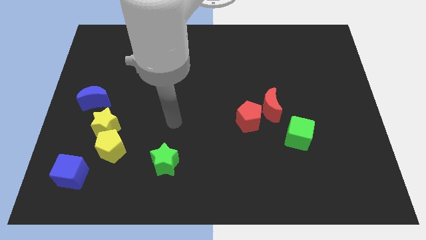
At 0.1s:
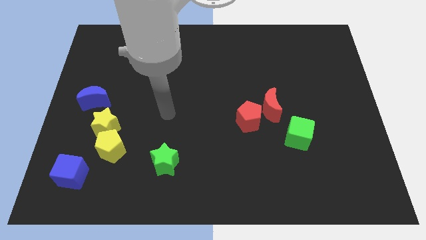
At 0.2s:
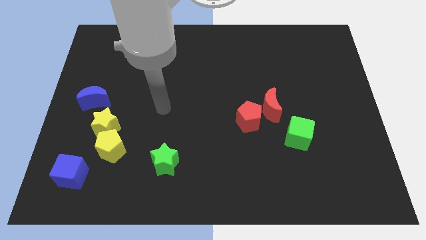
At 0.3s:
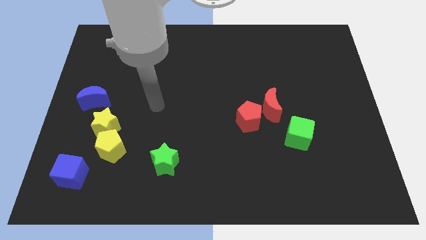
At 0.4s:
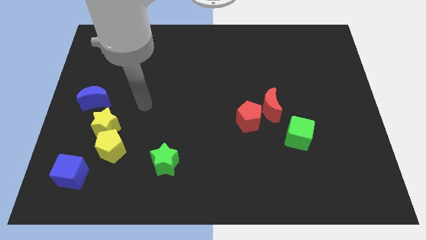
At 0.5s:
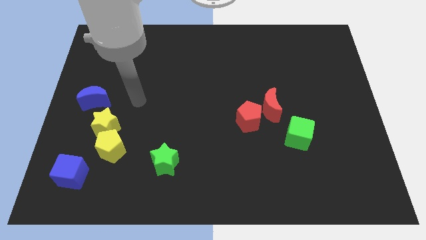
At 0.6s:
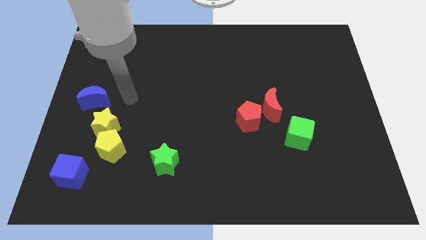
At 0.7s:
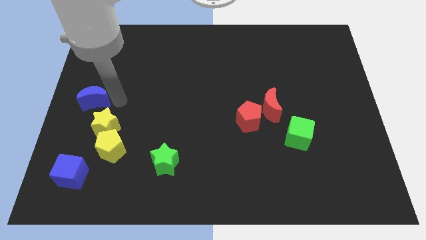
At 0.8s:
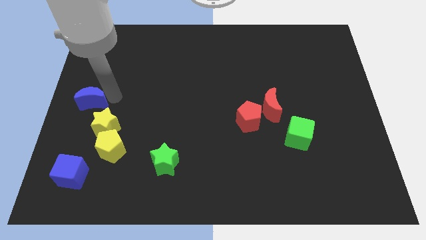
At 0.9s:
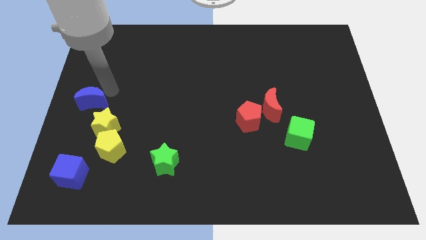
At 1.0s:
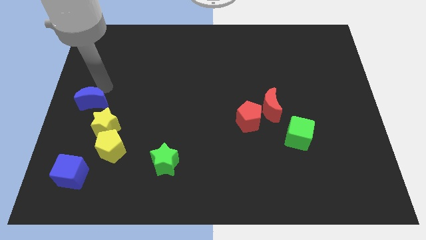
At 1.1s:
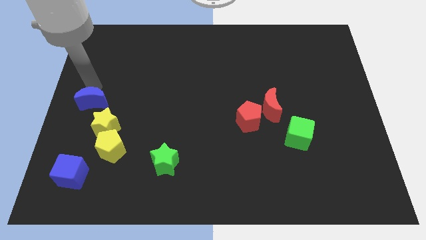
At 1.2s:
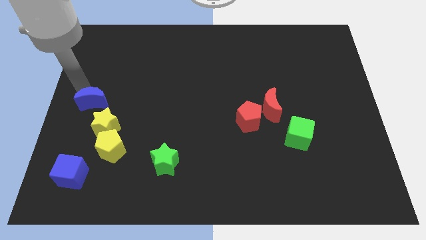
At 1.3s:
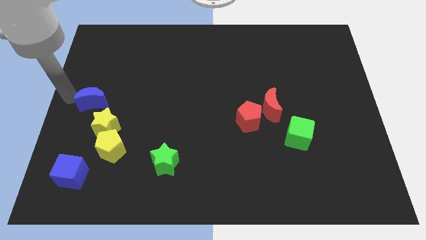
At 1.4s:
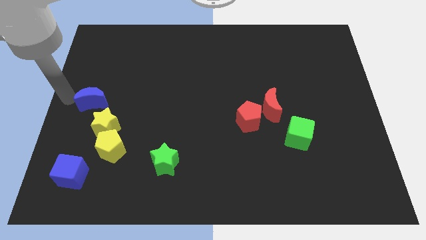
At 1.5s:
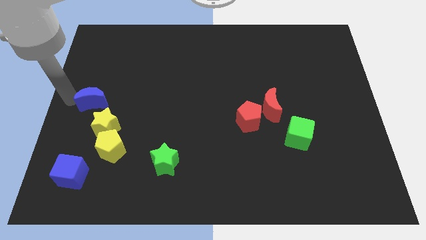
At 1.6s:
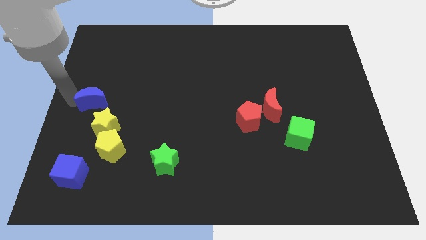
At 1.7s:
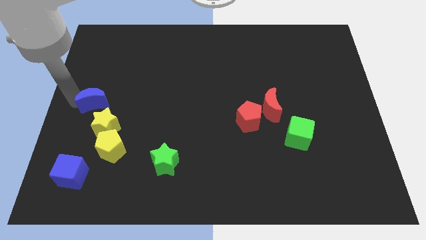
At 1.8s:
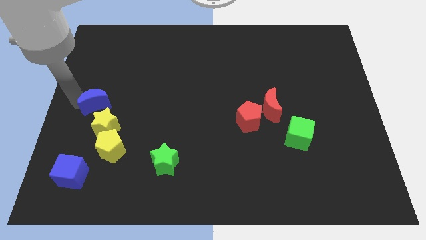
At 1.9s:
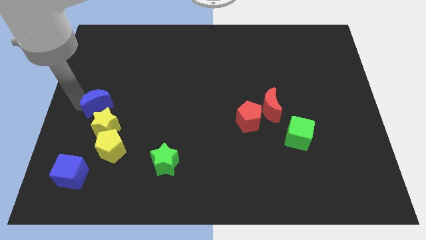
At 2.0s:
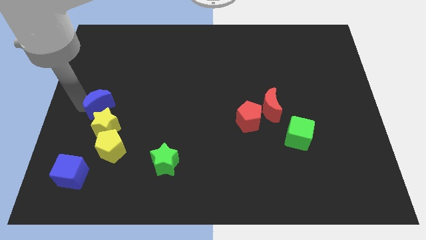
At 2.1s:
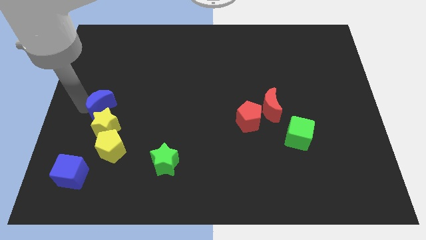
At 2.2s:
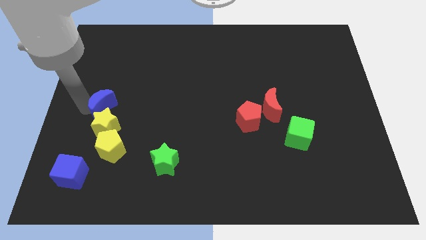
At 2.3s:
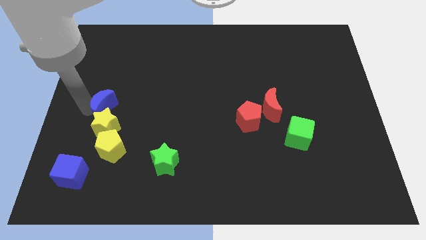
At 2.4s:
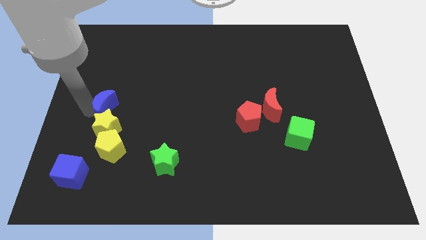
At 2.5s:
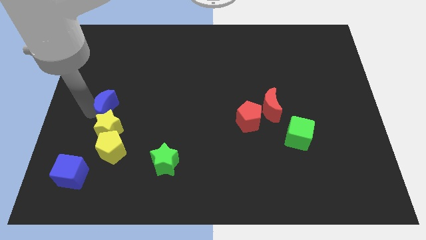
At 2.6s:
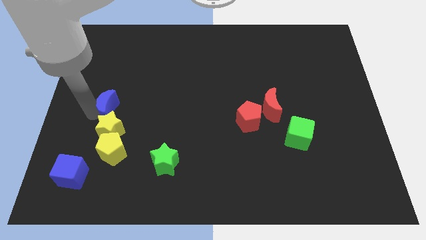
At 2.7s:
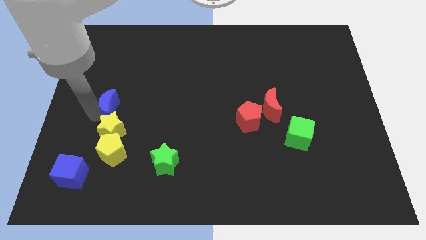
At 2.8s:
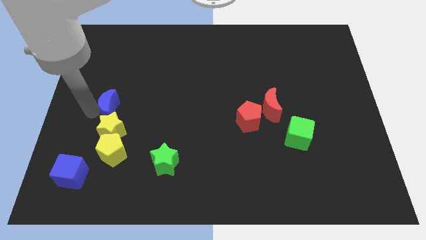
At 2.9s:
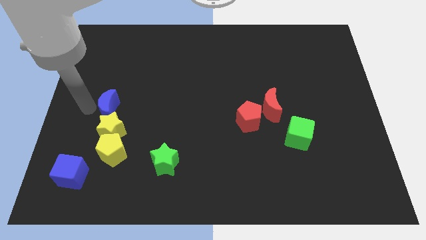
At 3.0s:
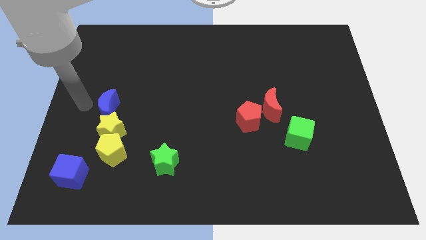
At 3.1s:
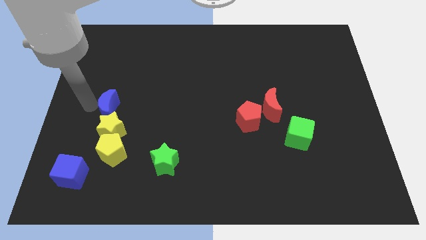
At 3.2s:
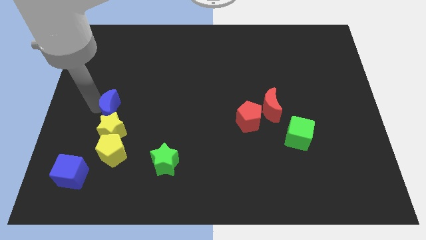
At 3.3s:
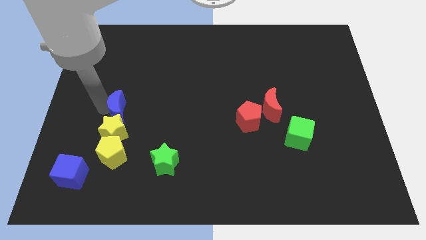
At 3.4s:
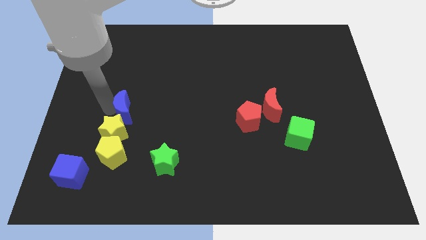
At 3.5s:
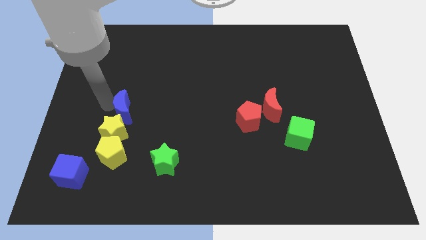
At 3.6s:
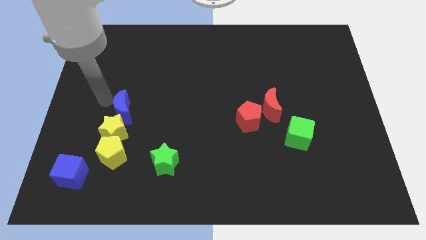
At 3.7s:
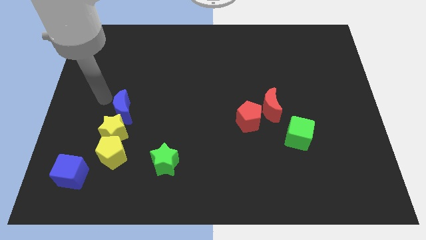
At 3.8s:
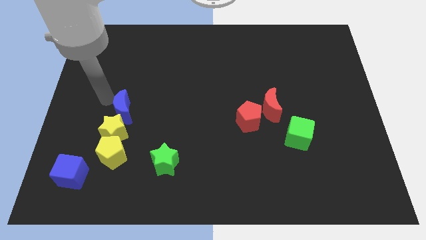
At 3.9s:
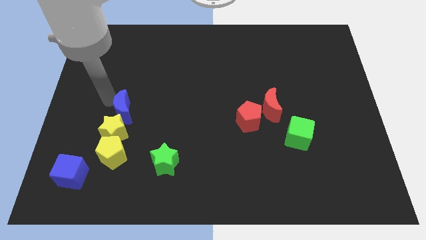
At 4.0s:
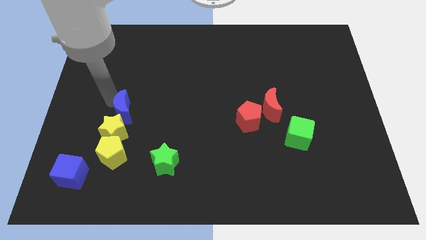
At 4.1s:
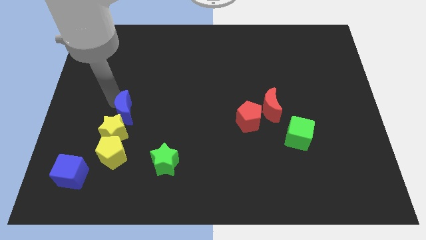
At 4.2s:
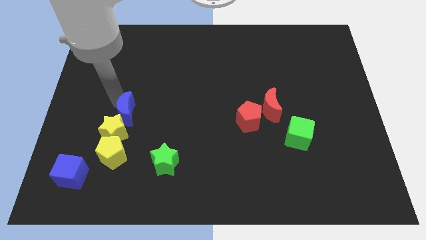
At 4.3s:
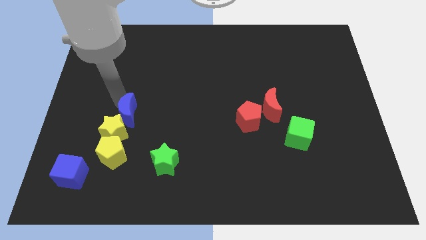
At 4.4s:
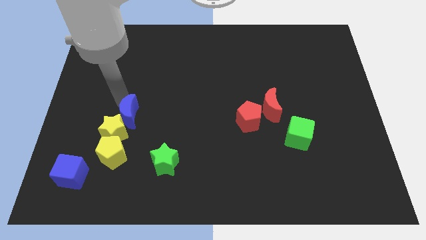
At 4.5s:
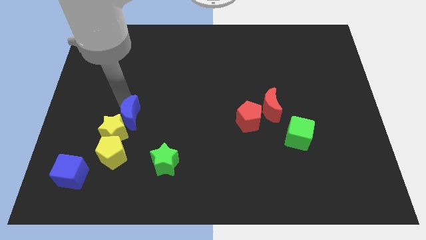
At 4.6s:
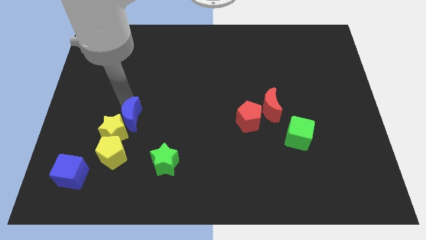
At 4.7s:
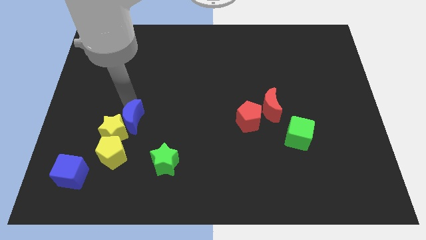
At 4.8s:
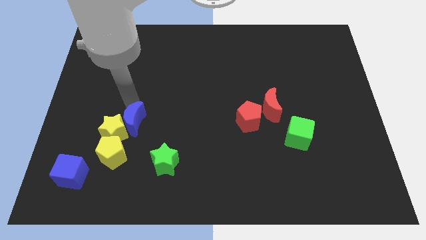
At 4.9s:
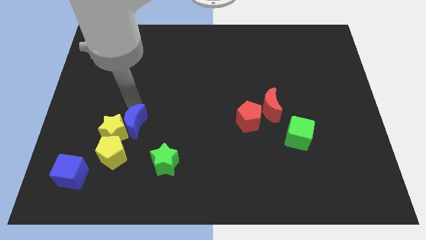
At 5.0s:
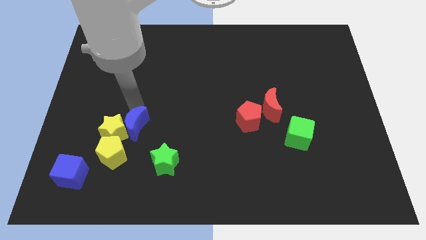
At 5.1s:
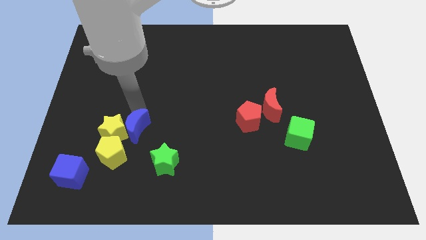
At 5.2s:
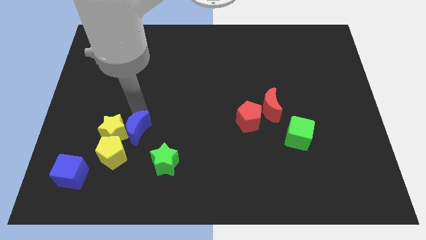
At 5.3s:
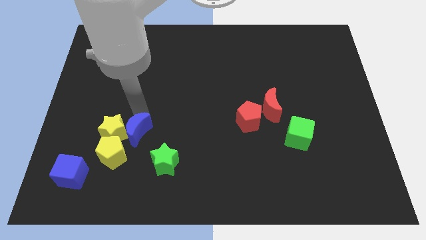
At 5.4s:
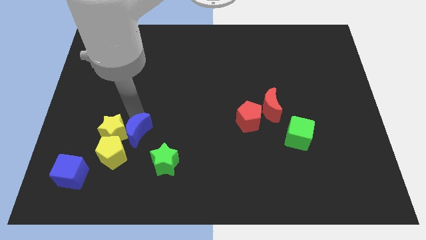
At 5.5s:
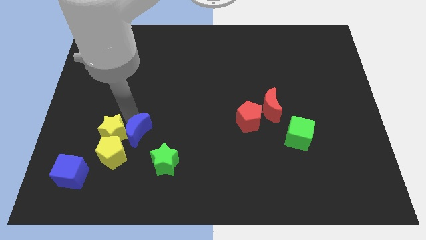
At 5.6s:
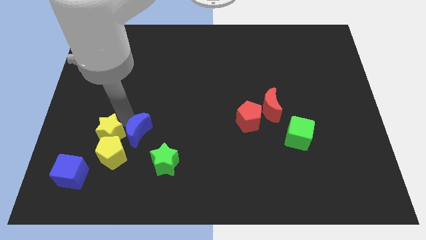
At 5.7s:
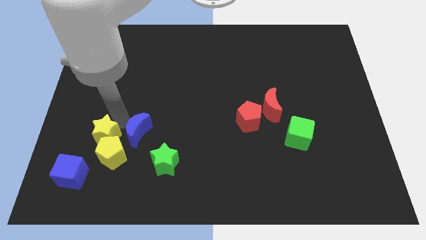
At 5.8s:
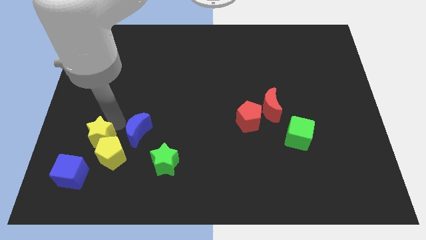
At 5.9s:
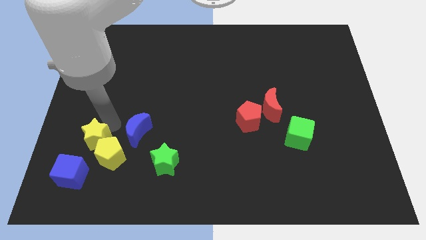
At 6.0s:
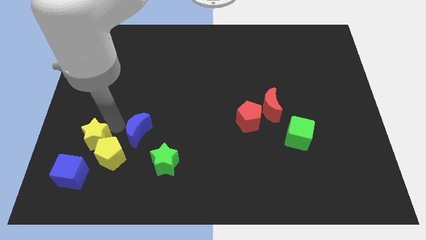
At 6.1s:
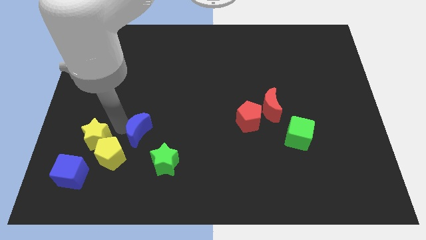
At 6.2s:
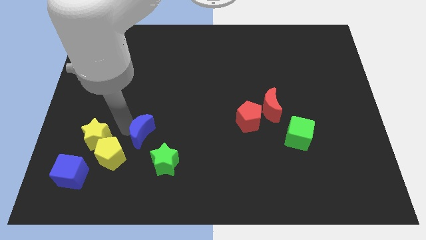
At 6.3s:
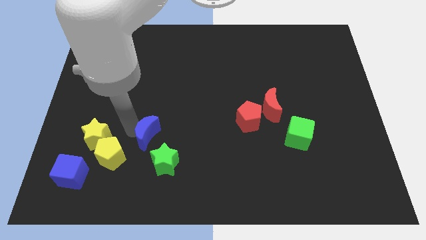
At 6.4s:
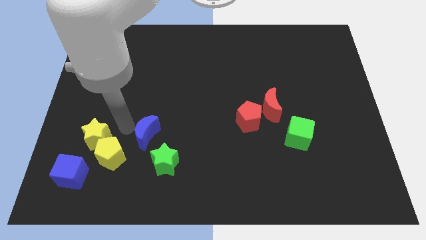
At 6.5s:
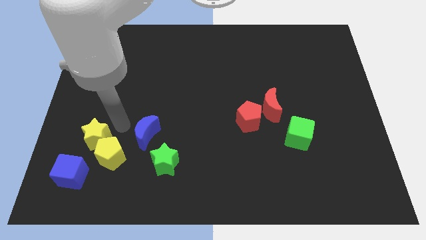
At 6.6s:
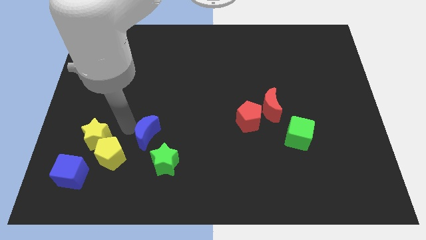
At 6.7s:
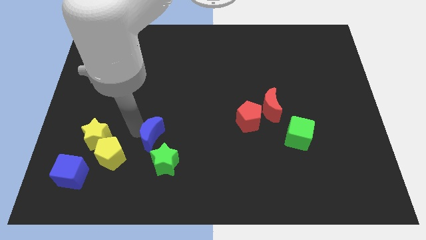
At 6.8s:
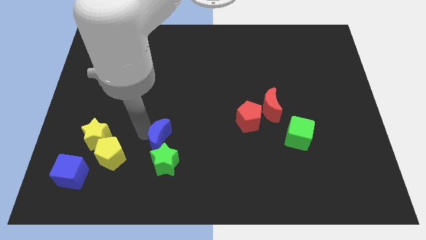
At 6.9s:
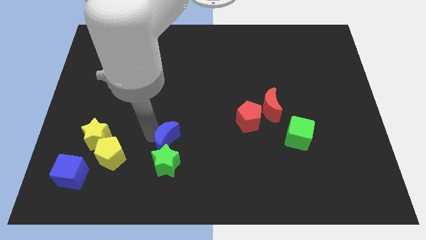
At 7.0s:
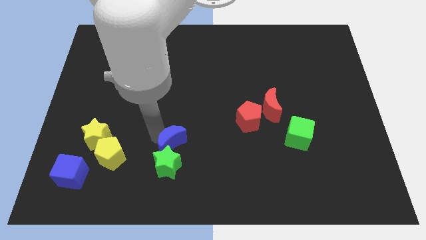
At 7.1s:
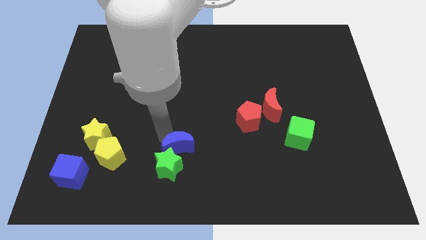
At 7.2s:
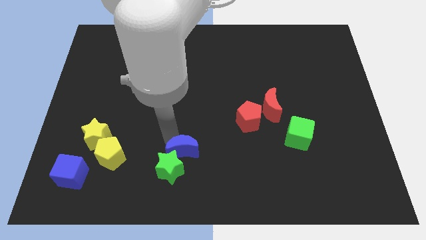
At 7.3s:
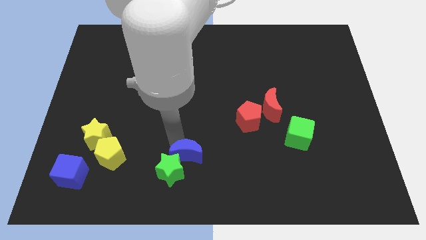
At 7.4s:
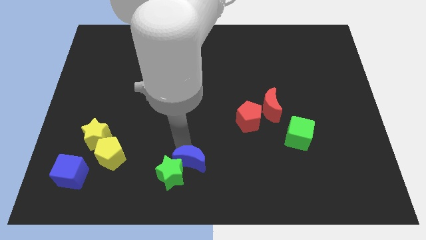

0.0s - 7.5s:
slide the blue moon to the bottom

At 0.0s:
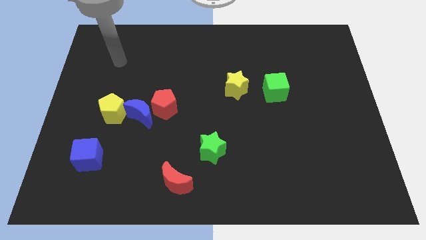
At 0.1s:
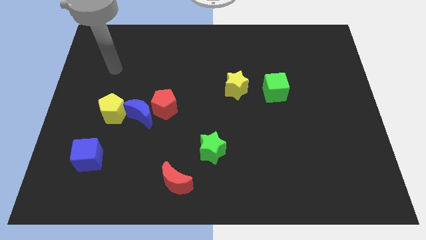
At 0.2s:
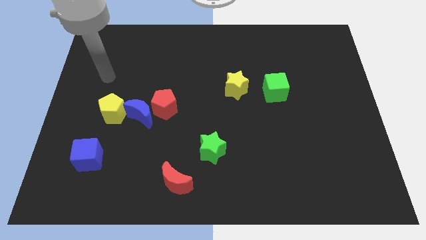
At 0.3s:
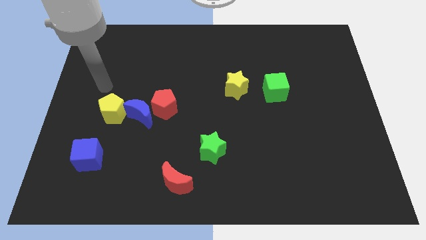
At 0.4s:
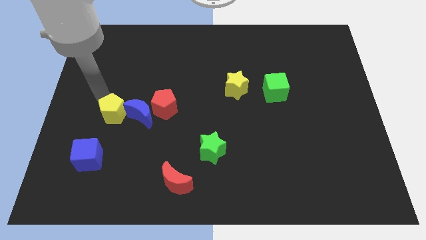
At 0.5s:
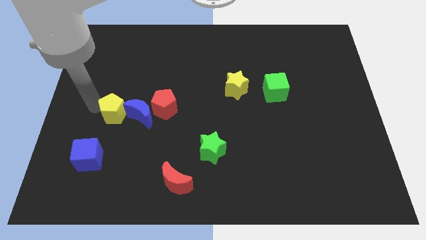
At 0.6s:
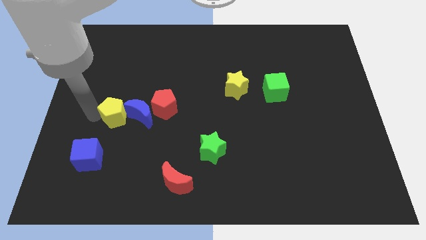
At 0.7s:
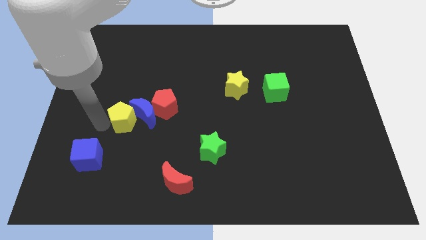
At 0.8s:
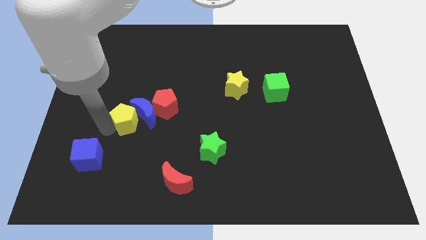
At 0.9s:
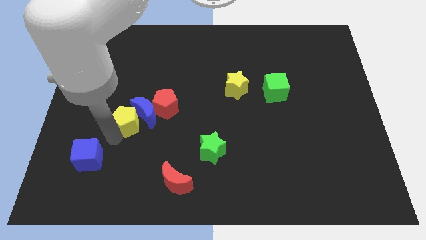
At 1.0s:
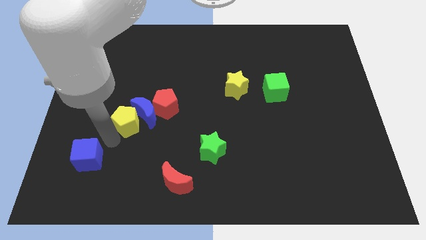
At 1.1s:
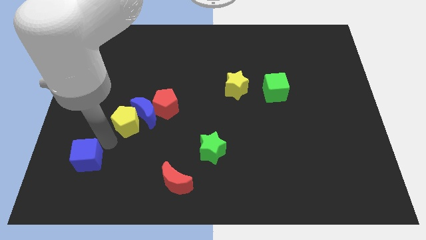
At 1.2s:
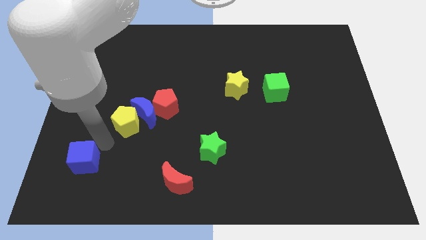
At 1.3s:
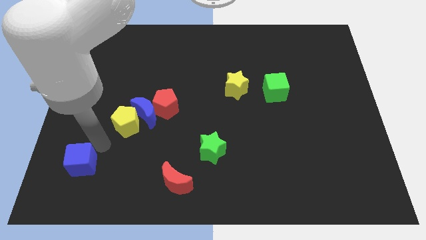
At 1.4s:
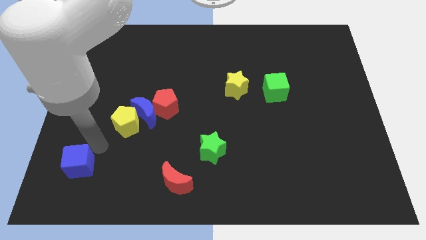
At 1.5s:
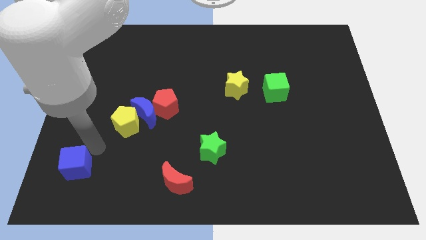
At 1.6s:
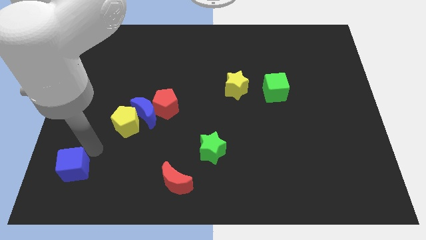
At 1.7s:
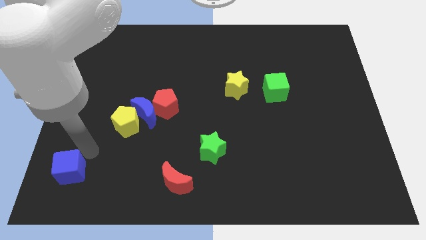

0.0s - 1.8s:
put the blue cube to the bottom left corner
